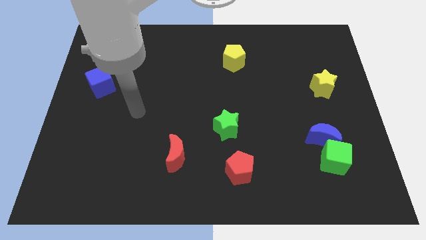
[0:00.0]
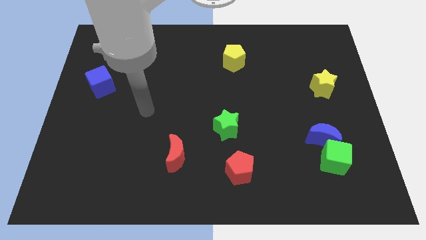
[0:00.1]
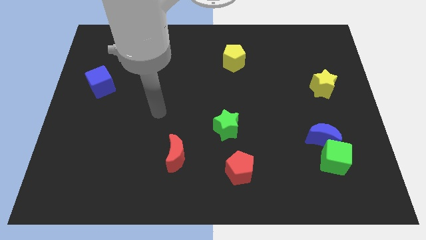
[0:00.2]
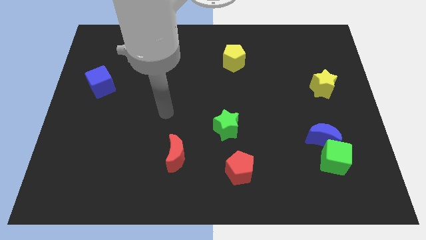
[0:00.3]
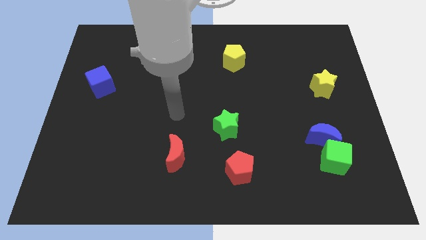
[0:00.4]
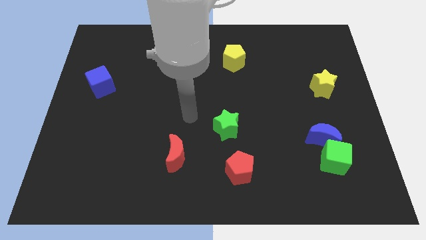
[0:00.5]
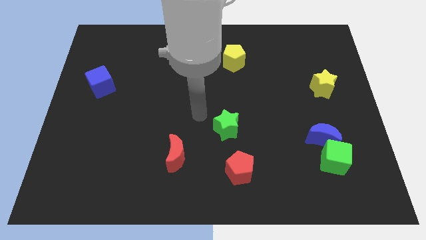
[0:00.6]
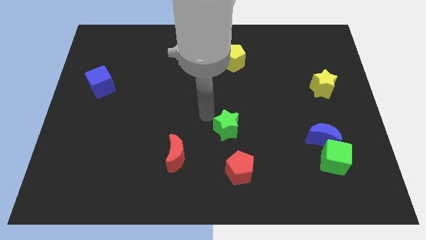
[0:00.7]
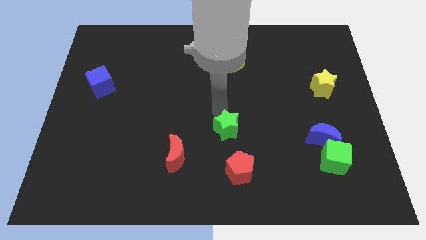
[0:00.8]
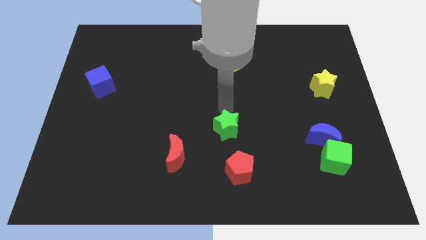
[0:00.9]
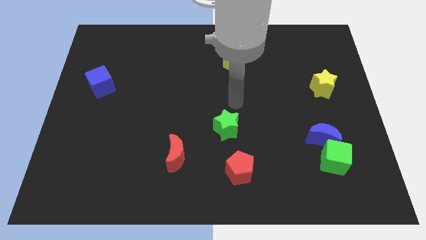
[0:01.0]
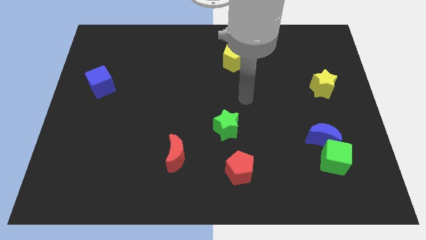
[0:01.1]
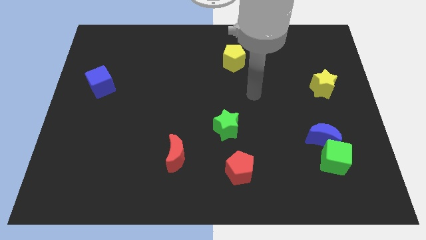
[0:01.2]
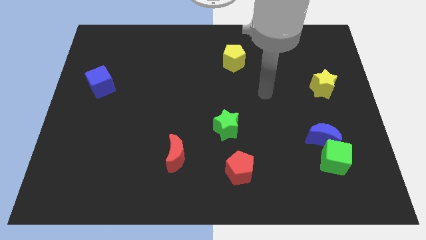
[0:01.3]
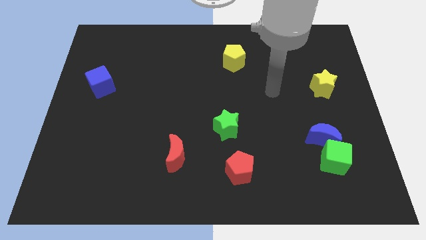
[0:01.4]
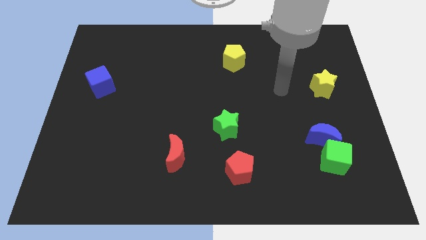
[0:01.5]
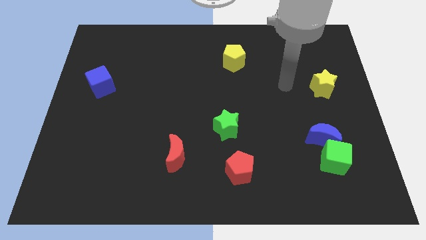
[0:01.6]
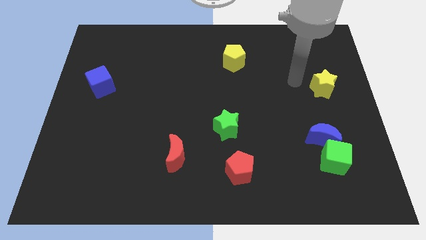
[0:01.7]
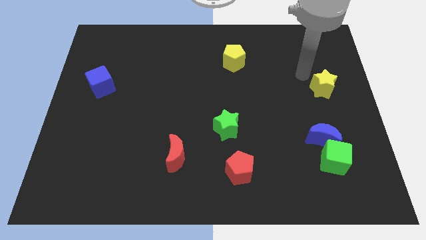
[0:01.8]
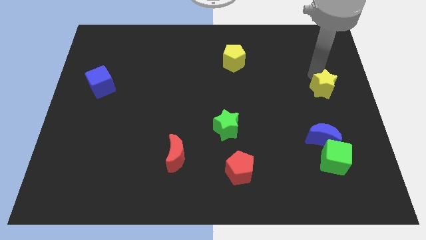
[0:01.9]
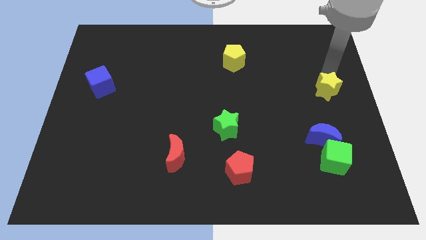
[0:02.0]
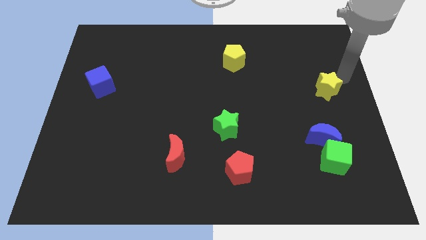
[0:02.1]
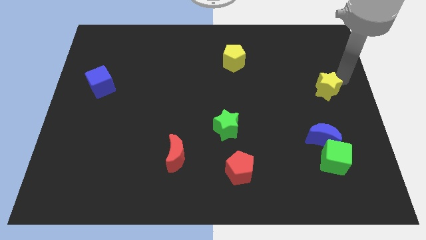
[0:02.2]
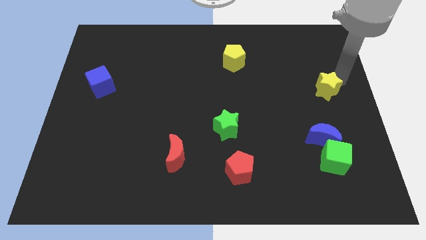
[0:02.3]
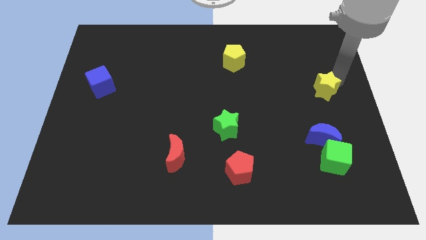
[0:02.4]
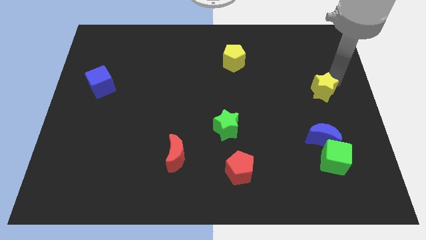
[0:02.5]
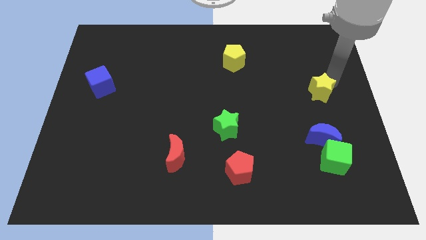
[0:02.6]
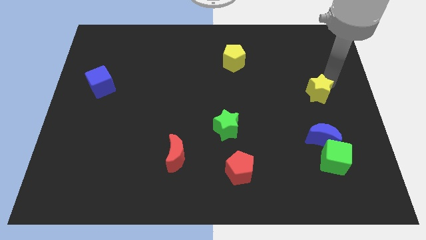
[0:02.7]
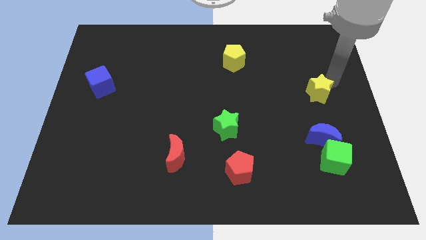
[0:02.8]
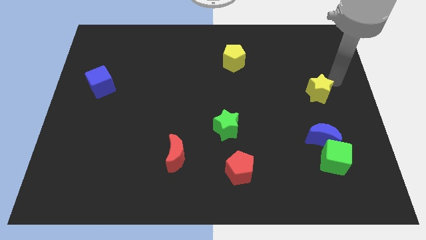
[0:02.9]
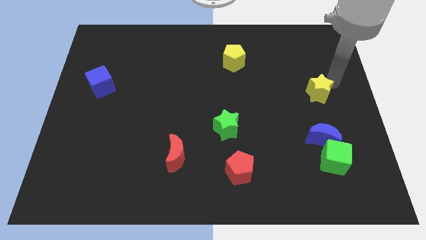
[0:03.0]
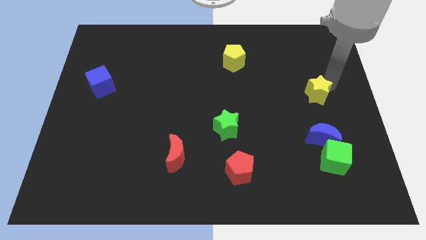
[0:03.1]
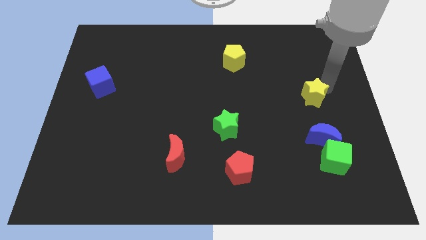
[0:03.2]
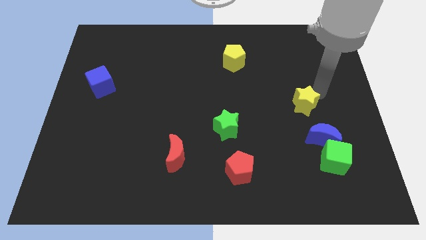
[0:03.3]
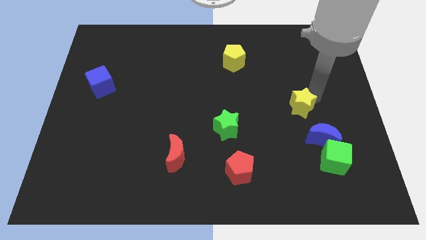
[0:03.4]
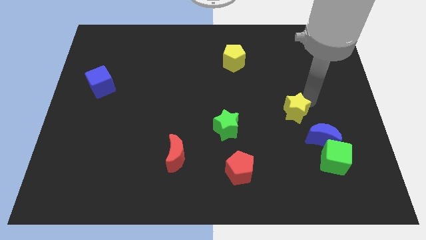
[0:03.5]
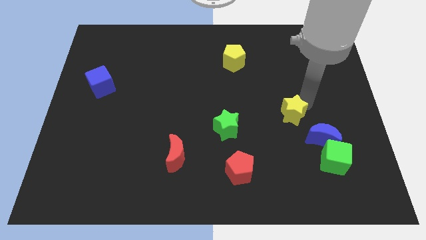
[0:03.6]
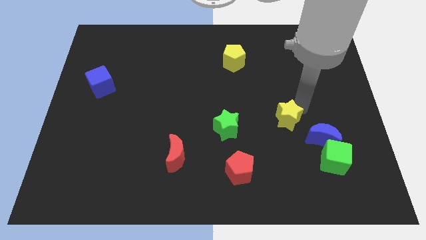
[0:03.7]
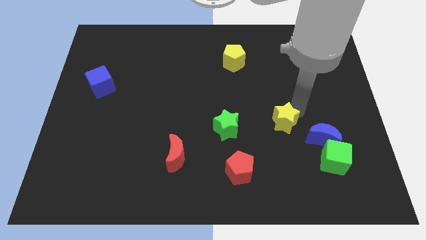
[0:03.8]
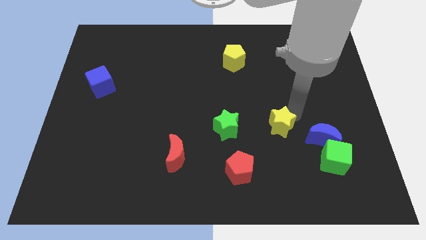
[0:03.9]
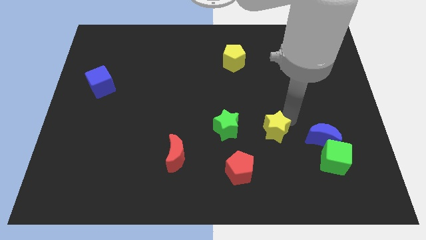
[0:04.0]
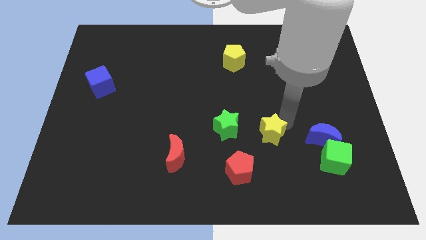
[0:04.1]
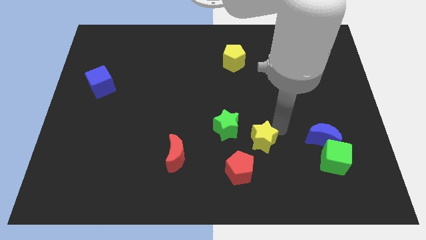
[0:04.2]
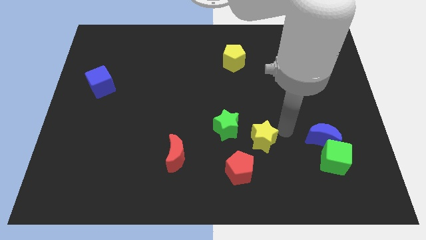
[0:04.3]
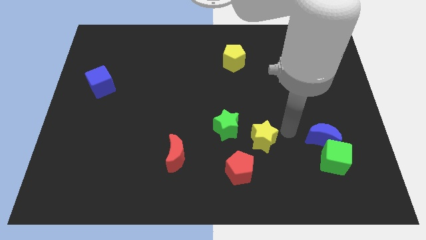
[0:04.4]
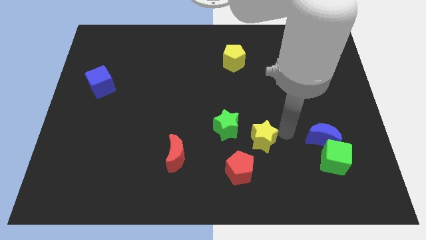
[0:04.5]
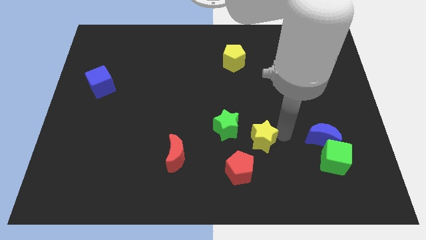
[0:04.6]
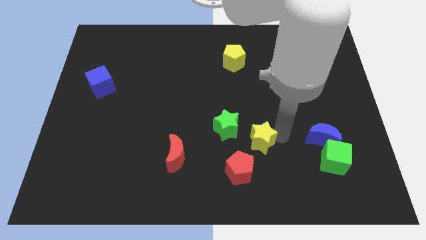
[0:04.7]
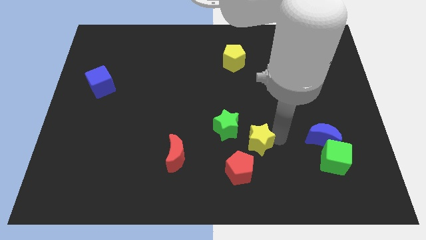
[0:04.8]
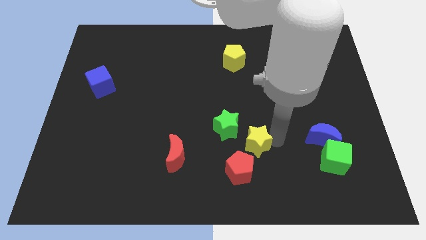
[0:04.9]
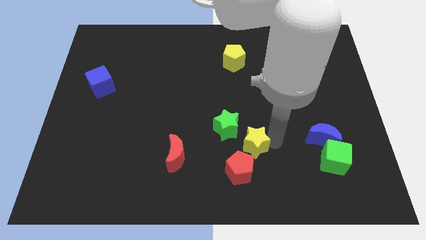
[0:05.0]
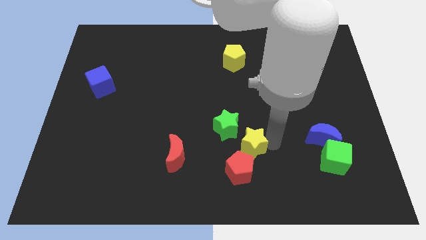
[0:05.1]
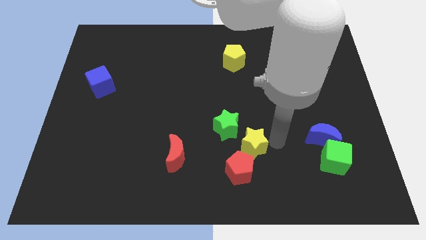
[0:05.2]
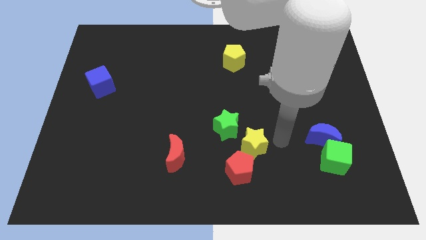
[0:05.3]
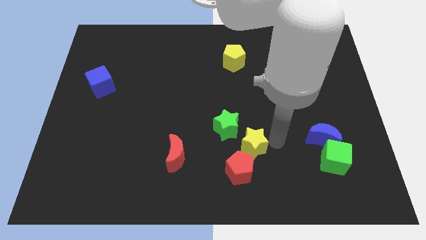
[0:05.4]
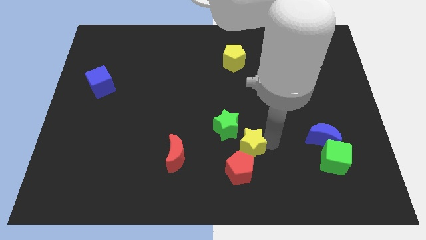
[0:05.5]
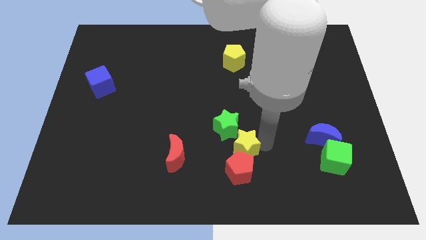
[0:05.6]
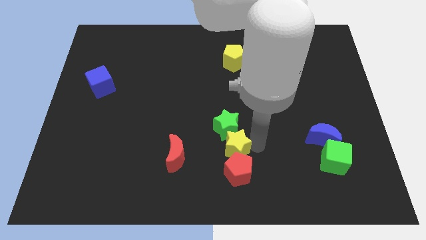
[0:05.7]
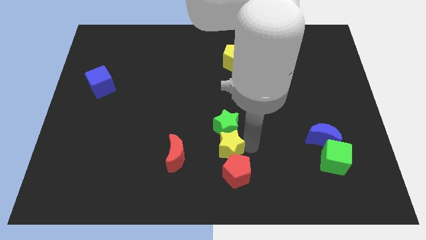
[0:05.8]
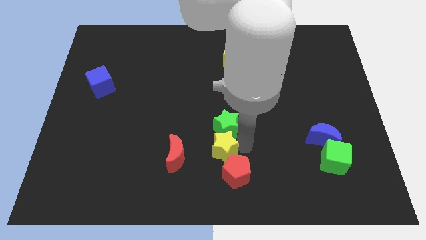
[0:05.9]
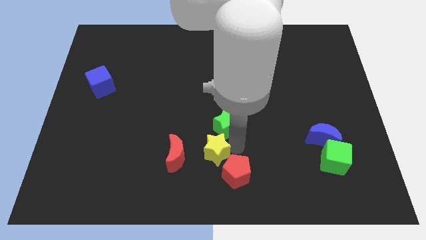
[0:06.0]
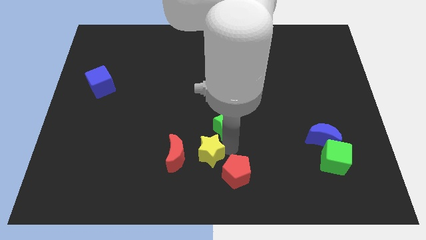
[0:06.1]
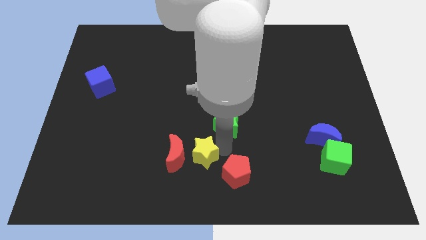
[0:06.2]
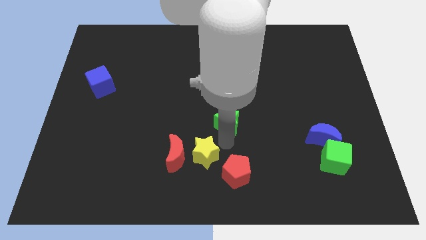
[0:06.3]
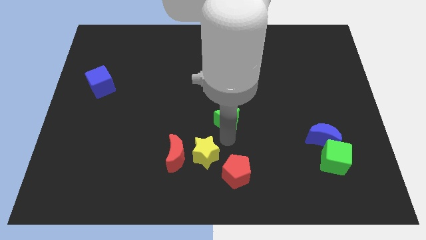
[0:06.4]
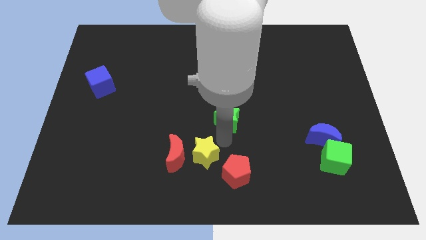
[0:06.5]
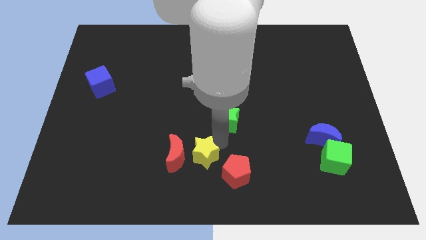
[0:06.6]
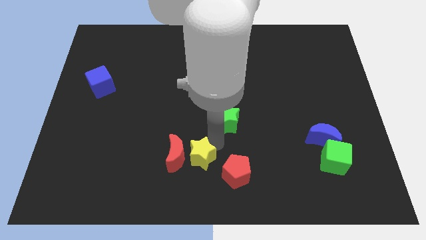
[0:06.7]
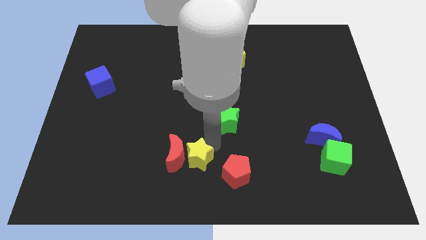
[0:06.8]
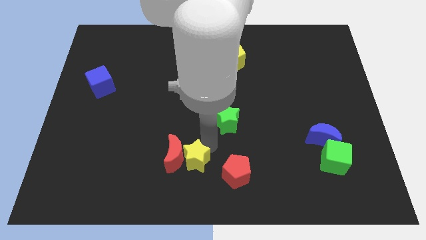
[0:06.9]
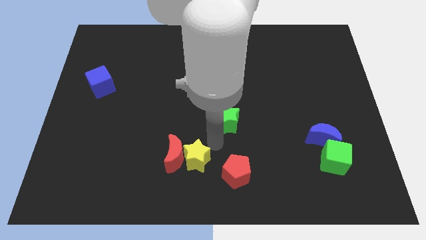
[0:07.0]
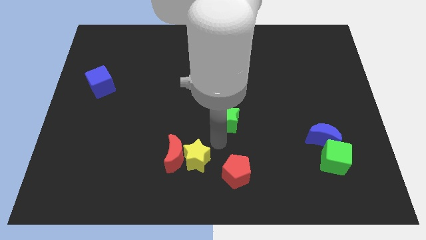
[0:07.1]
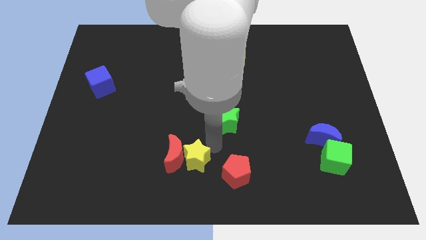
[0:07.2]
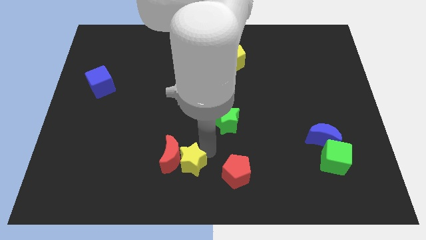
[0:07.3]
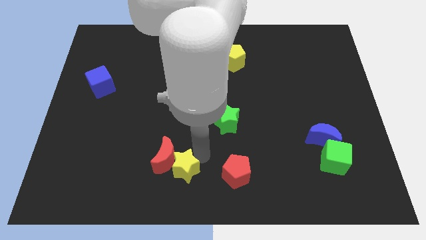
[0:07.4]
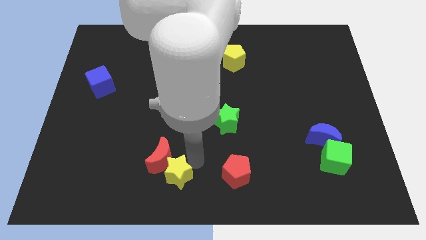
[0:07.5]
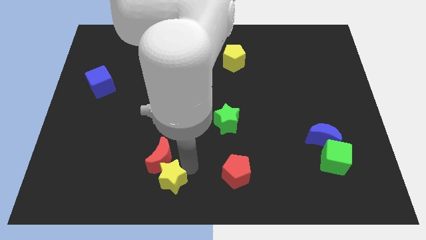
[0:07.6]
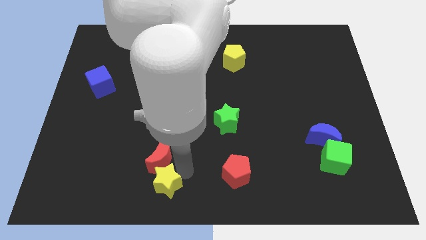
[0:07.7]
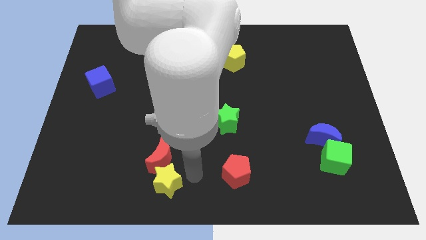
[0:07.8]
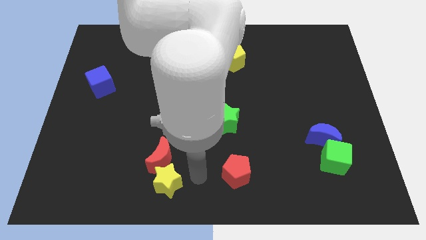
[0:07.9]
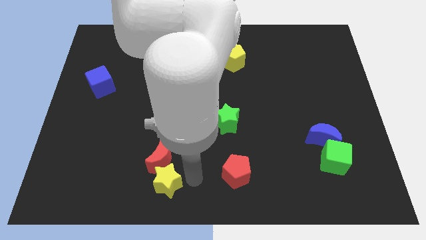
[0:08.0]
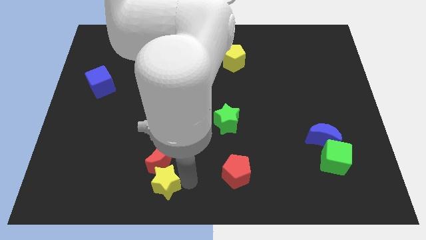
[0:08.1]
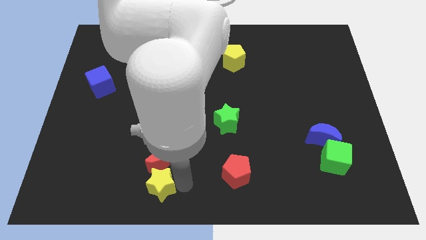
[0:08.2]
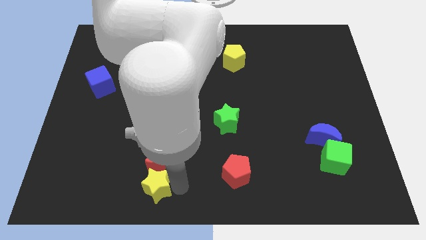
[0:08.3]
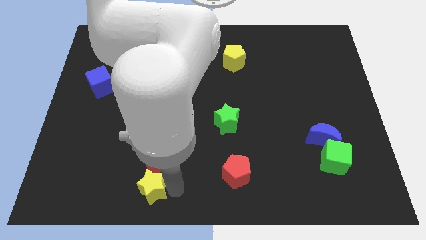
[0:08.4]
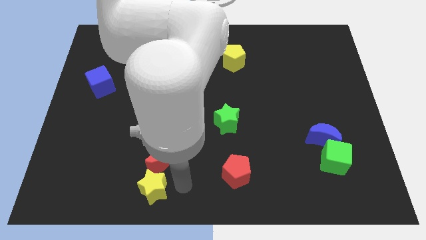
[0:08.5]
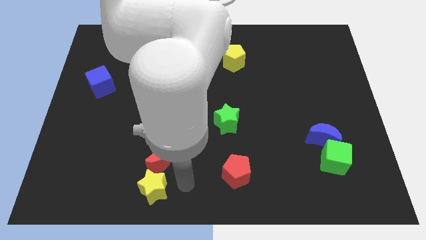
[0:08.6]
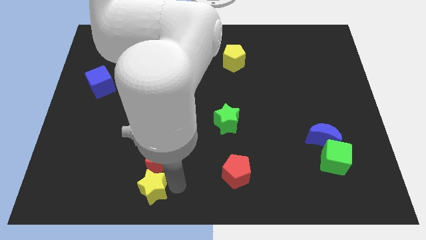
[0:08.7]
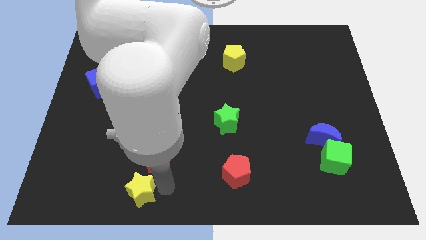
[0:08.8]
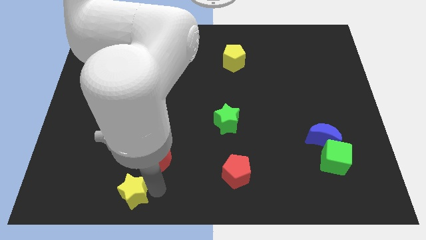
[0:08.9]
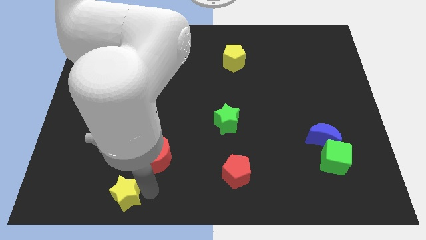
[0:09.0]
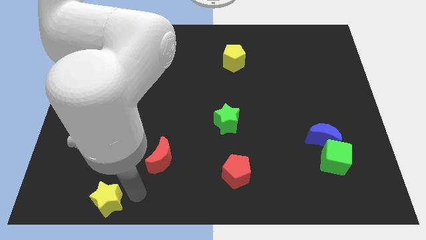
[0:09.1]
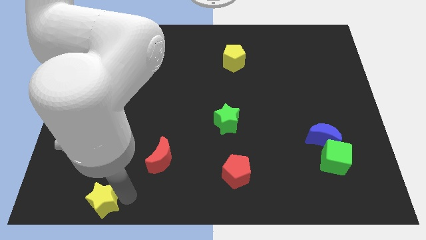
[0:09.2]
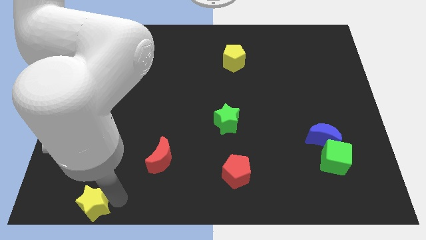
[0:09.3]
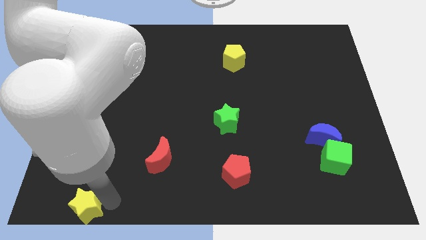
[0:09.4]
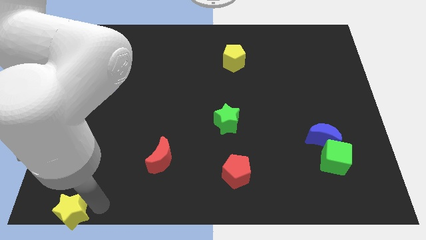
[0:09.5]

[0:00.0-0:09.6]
push the yellow star to the bottom left of the board
